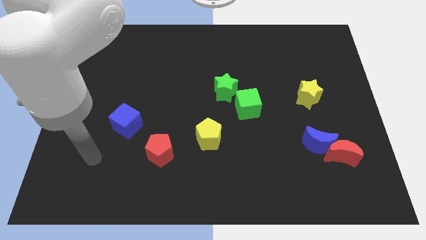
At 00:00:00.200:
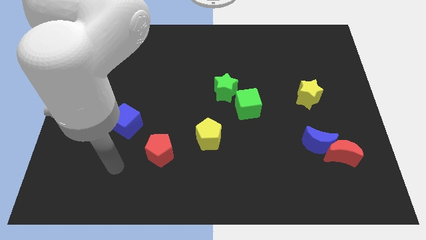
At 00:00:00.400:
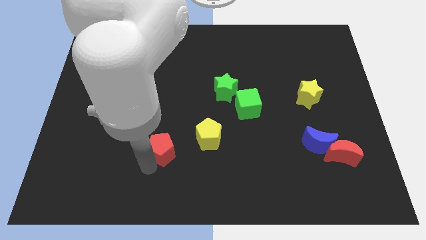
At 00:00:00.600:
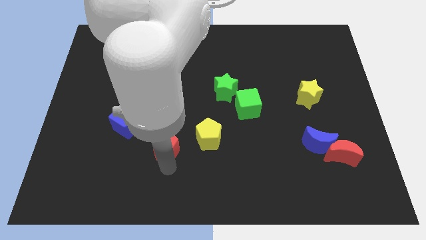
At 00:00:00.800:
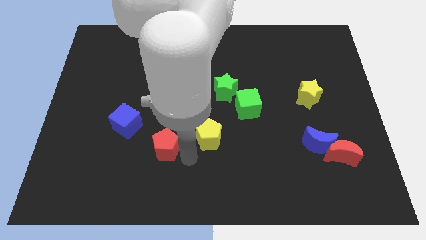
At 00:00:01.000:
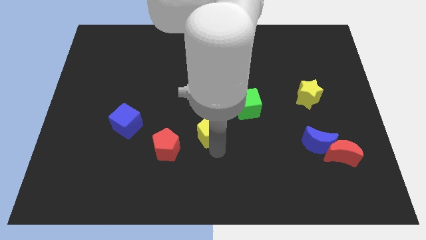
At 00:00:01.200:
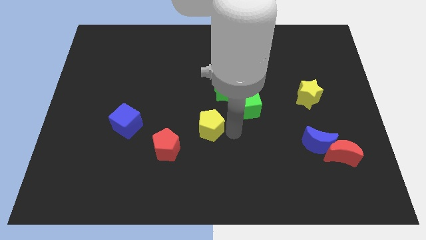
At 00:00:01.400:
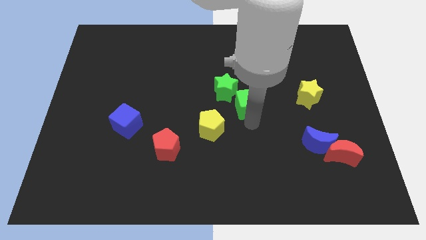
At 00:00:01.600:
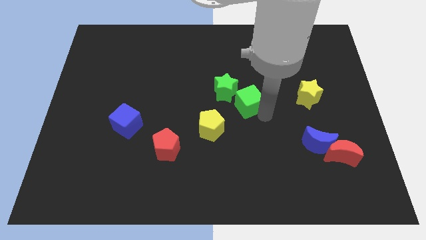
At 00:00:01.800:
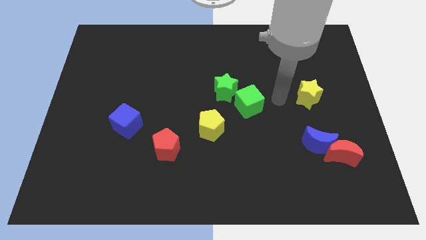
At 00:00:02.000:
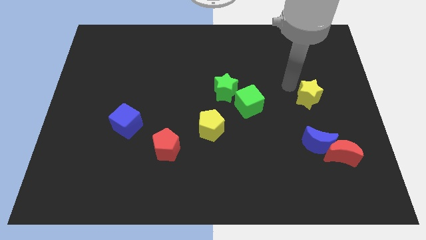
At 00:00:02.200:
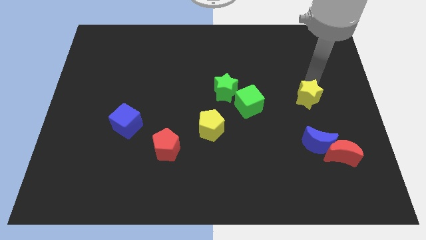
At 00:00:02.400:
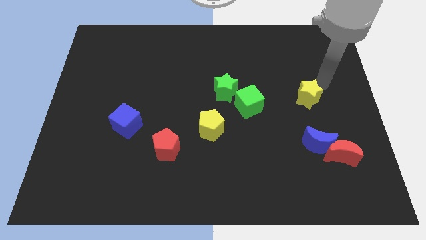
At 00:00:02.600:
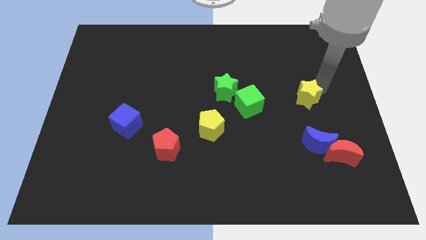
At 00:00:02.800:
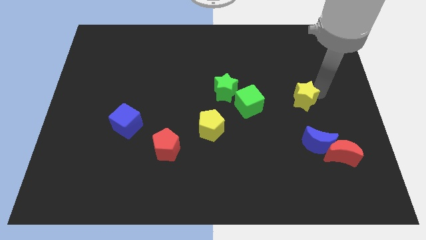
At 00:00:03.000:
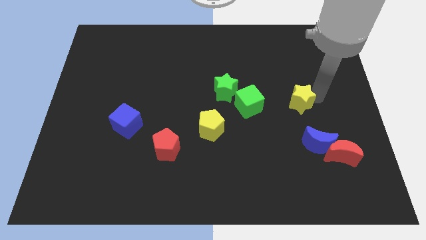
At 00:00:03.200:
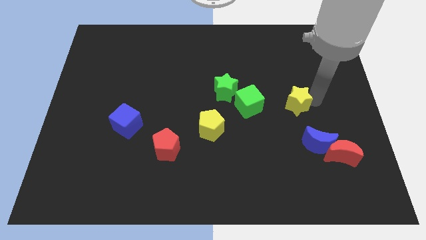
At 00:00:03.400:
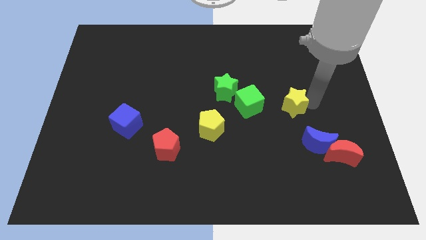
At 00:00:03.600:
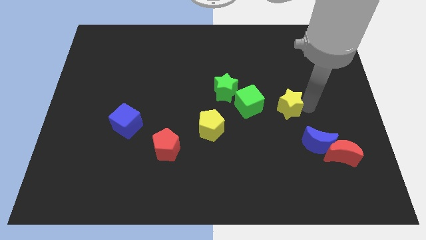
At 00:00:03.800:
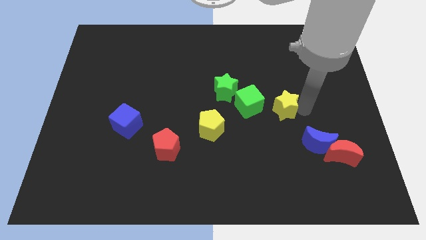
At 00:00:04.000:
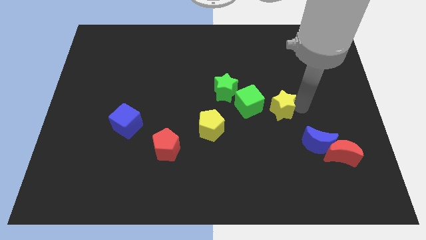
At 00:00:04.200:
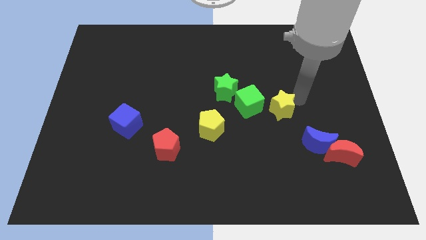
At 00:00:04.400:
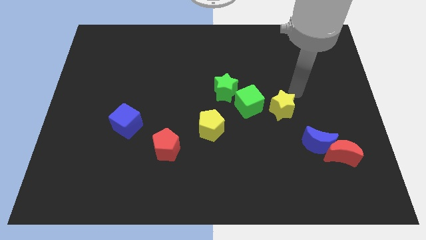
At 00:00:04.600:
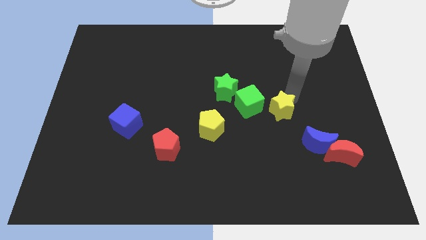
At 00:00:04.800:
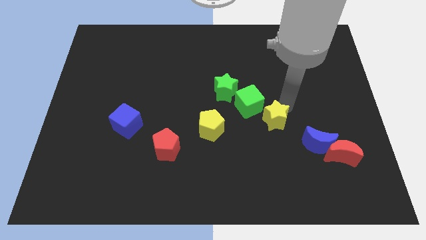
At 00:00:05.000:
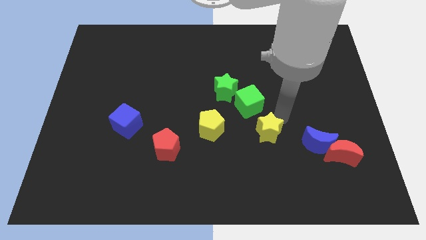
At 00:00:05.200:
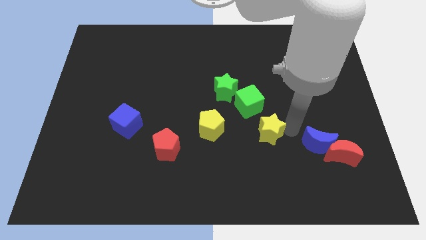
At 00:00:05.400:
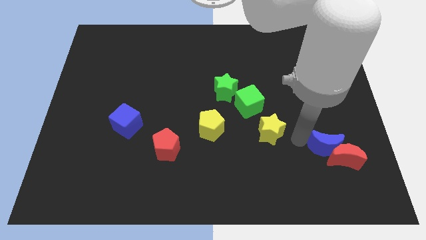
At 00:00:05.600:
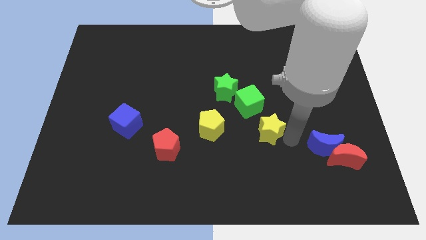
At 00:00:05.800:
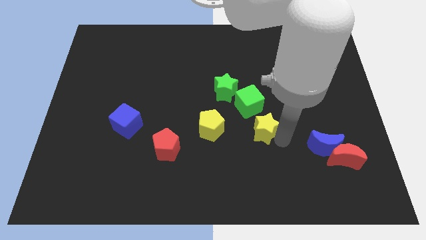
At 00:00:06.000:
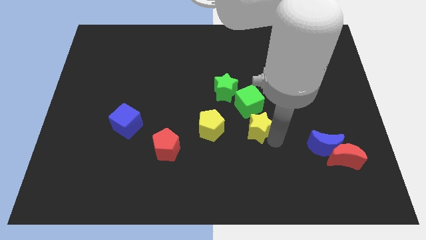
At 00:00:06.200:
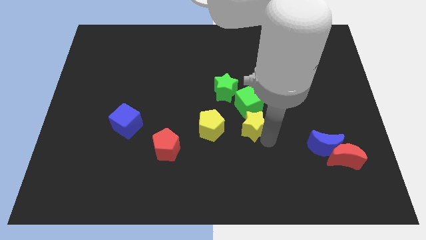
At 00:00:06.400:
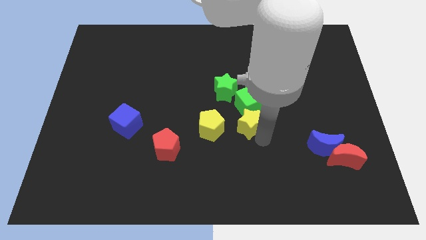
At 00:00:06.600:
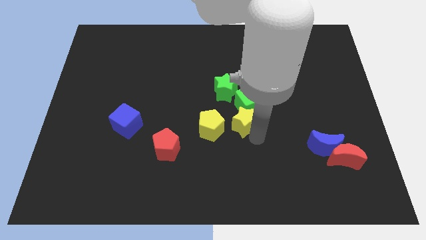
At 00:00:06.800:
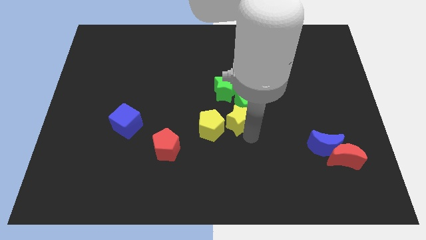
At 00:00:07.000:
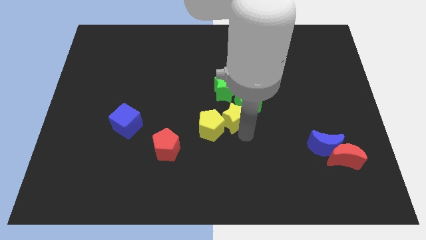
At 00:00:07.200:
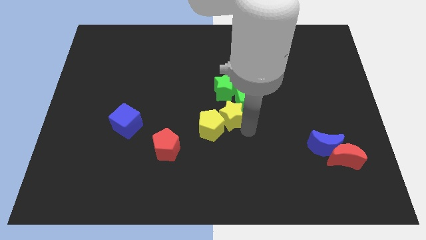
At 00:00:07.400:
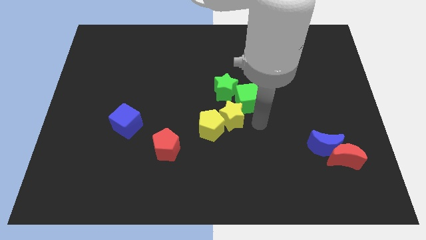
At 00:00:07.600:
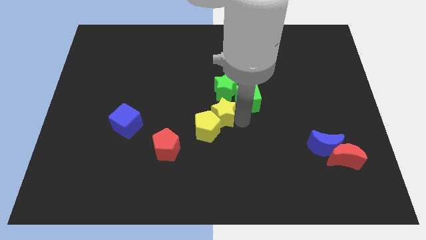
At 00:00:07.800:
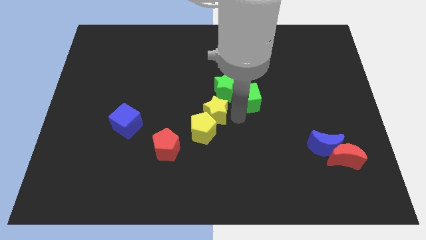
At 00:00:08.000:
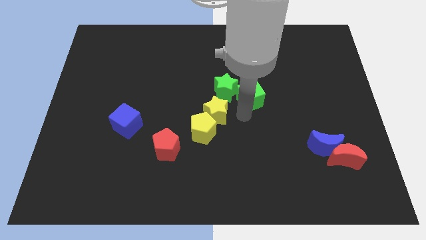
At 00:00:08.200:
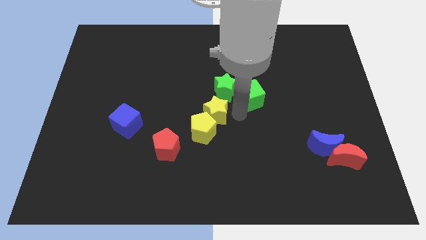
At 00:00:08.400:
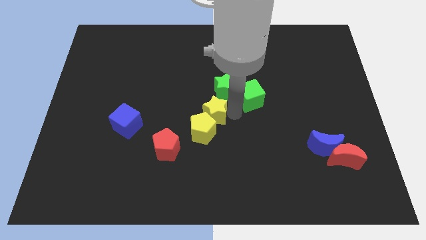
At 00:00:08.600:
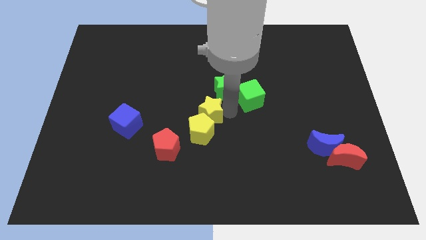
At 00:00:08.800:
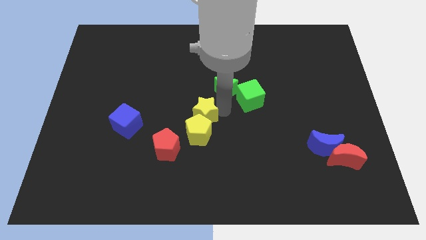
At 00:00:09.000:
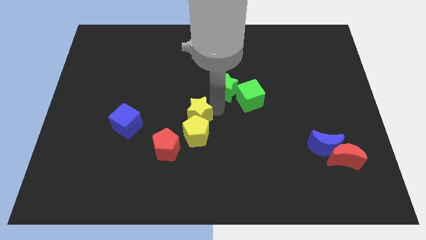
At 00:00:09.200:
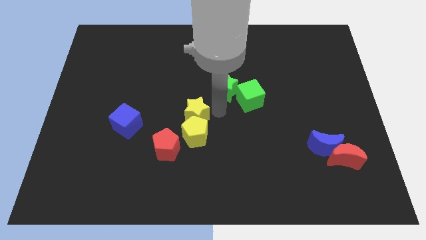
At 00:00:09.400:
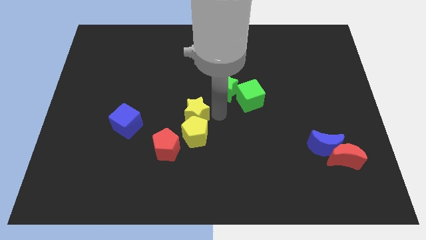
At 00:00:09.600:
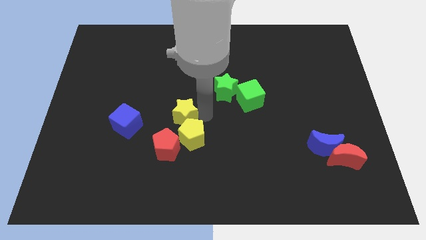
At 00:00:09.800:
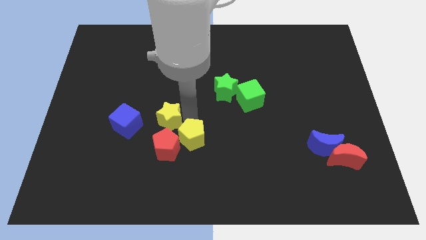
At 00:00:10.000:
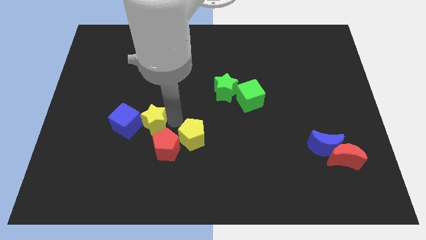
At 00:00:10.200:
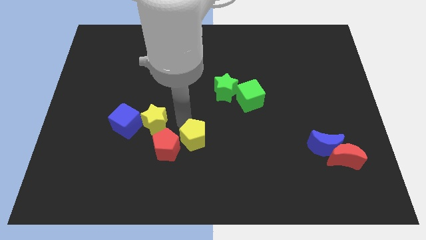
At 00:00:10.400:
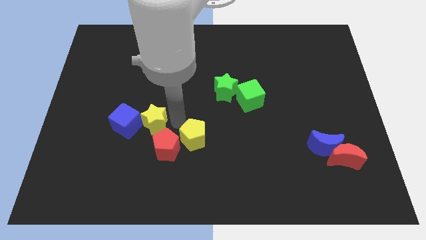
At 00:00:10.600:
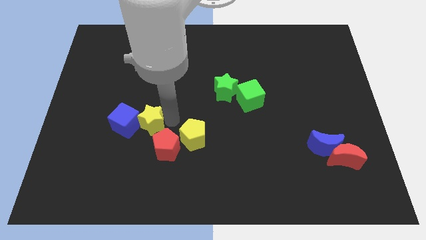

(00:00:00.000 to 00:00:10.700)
move the yellow star close to the blue cube

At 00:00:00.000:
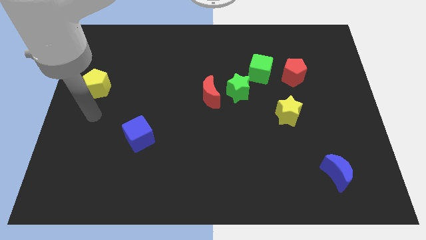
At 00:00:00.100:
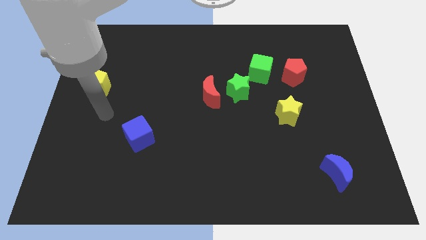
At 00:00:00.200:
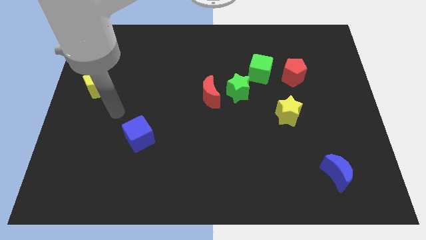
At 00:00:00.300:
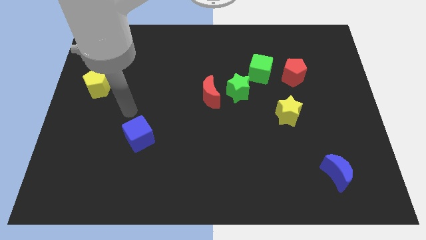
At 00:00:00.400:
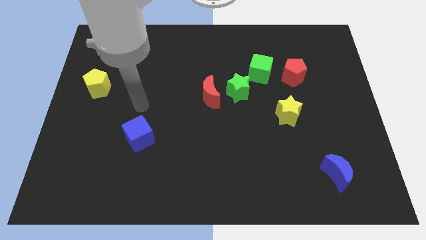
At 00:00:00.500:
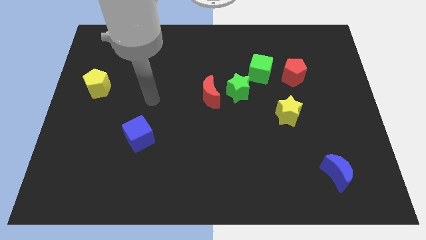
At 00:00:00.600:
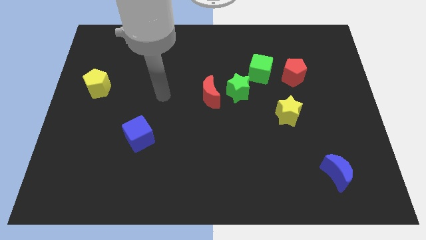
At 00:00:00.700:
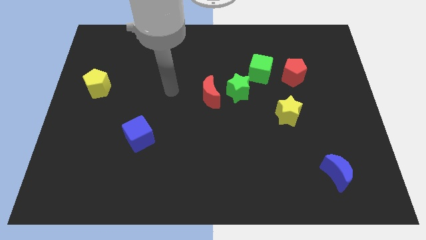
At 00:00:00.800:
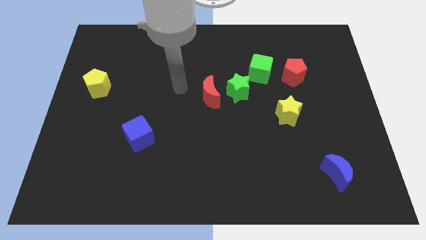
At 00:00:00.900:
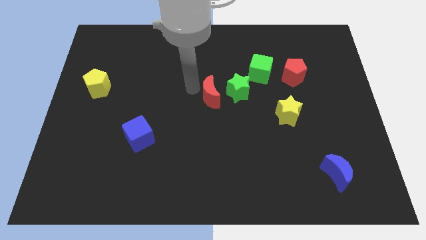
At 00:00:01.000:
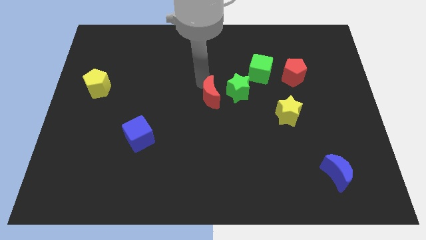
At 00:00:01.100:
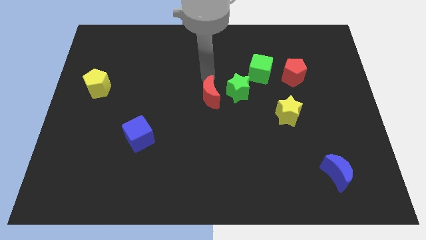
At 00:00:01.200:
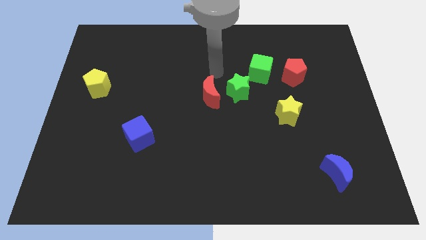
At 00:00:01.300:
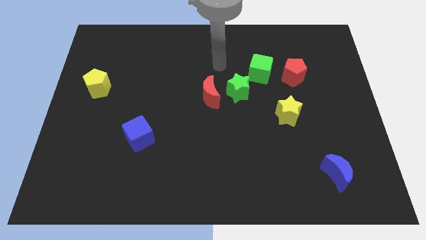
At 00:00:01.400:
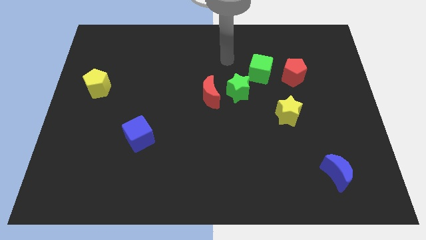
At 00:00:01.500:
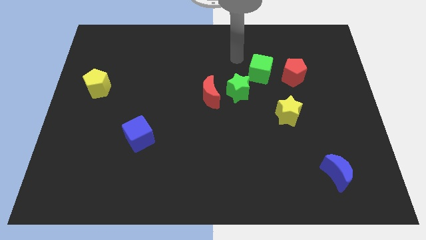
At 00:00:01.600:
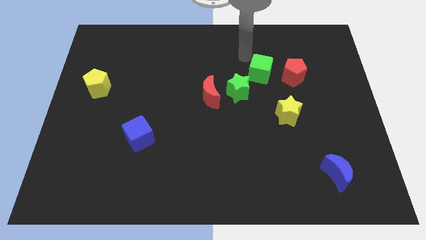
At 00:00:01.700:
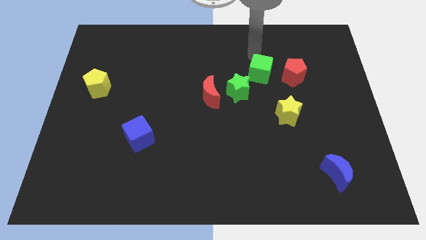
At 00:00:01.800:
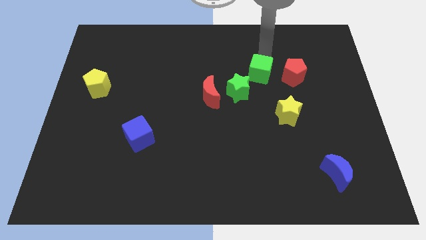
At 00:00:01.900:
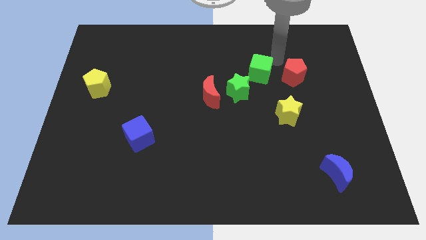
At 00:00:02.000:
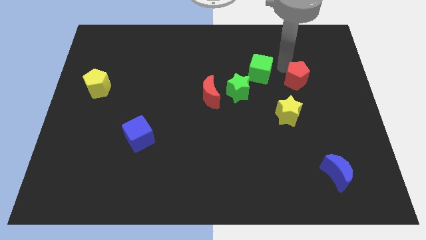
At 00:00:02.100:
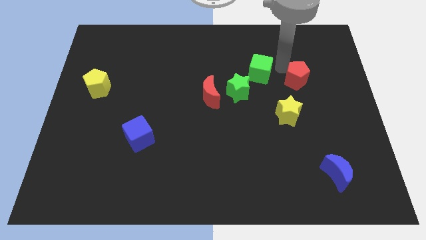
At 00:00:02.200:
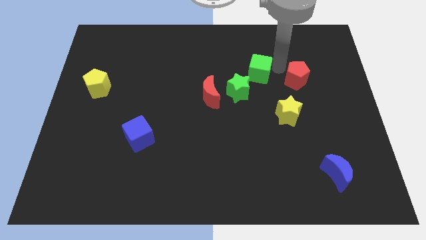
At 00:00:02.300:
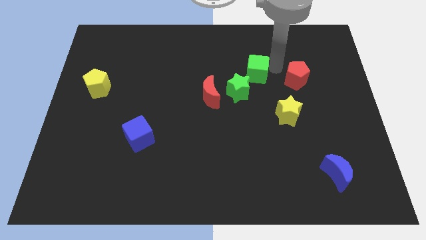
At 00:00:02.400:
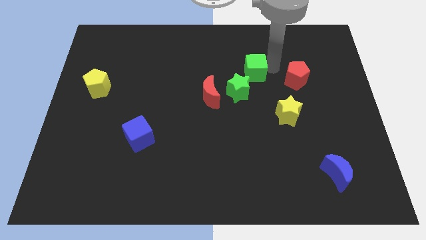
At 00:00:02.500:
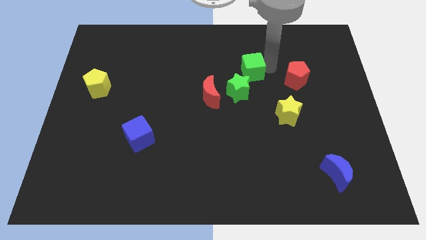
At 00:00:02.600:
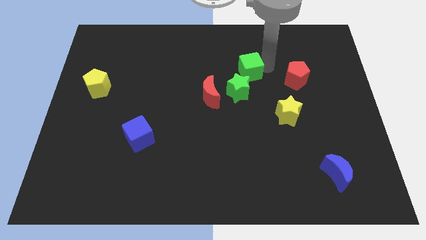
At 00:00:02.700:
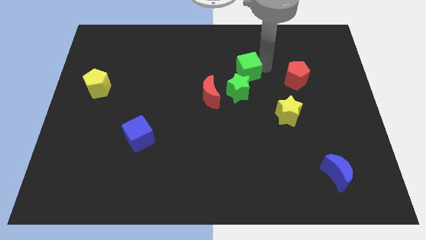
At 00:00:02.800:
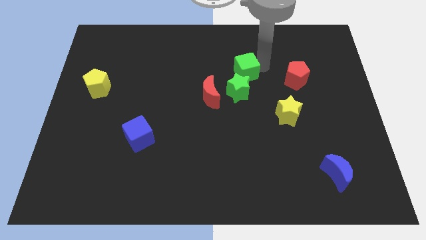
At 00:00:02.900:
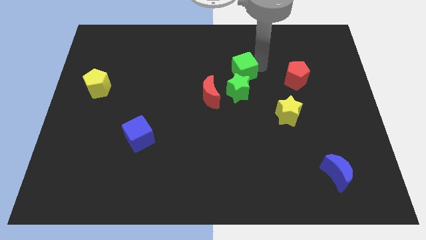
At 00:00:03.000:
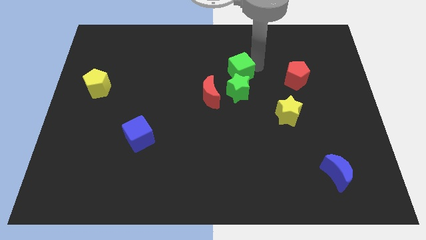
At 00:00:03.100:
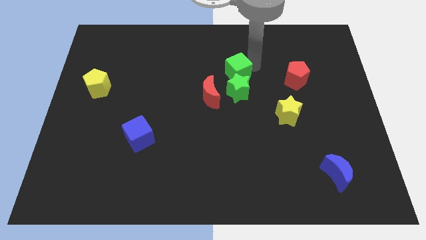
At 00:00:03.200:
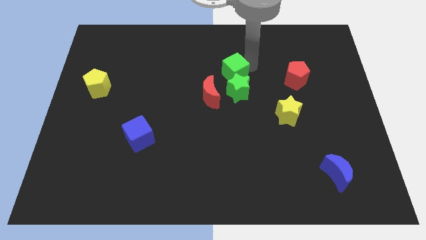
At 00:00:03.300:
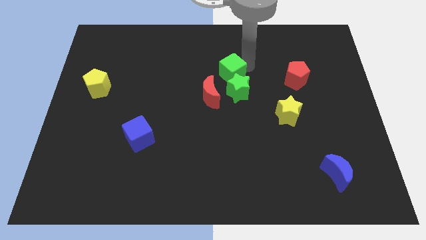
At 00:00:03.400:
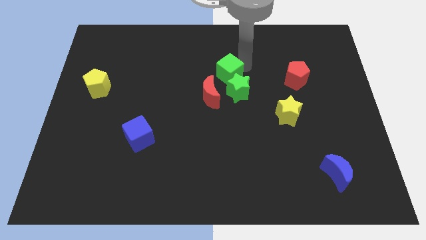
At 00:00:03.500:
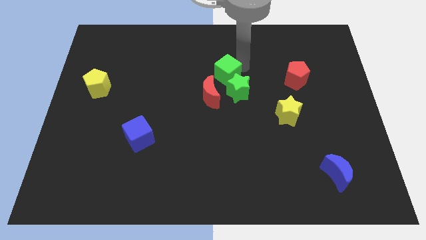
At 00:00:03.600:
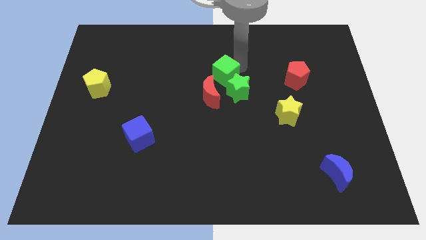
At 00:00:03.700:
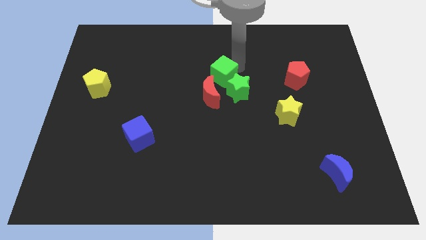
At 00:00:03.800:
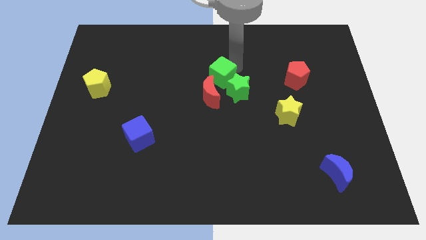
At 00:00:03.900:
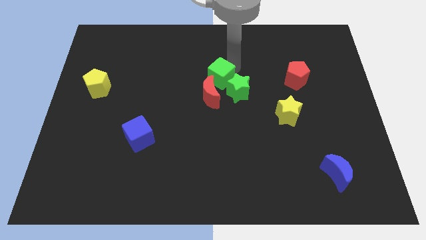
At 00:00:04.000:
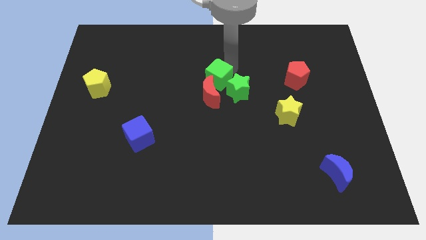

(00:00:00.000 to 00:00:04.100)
put the green cube towards the red moon
